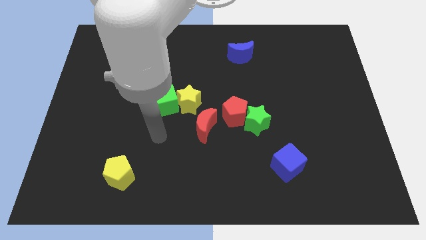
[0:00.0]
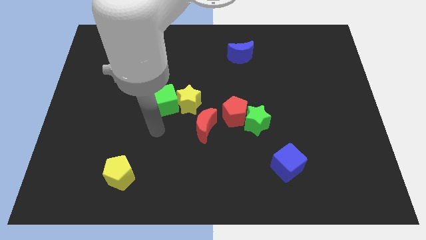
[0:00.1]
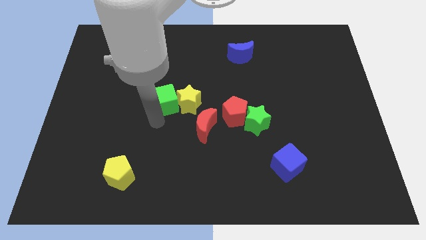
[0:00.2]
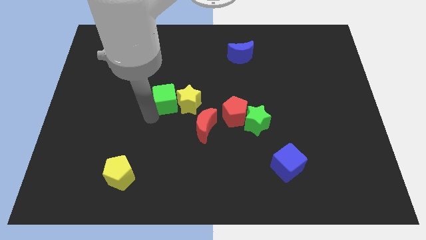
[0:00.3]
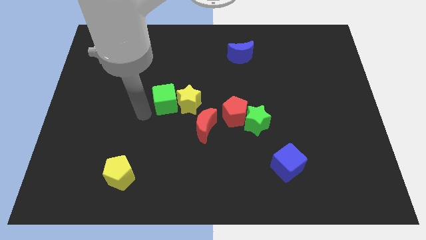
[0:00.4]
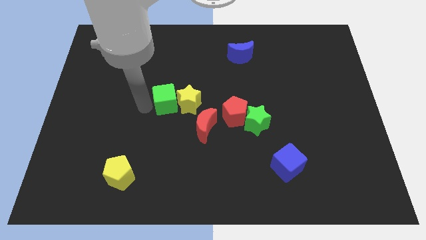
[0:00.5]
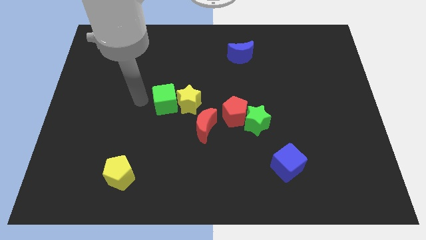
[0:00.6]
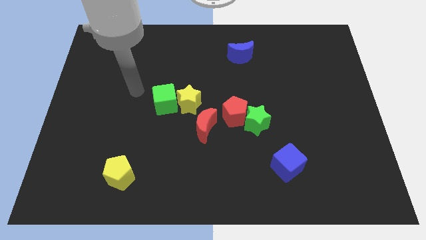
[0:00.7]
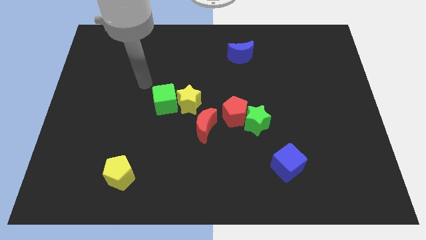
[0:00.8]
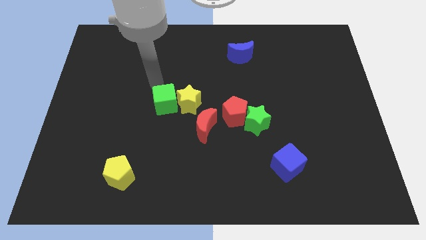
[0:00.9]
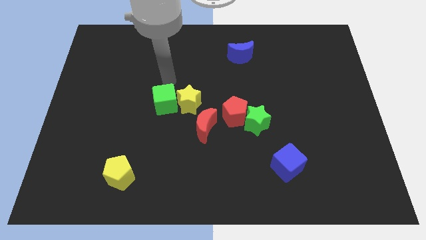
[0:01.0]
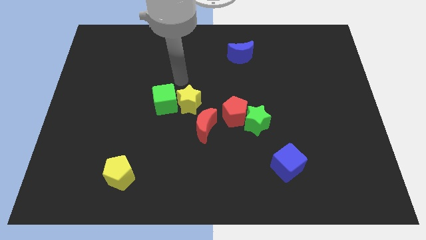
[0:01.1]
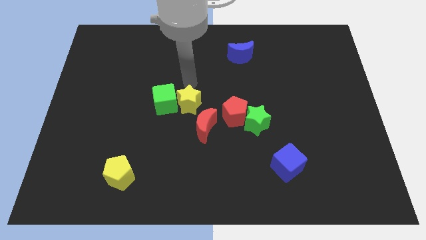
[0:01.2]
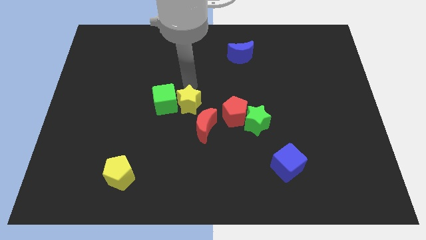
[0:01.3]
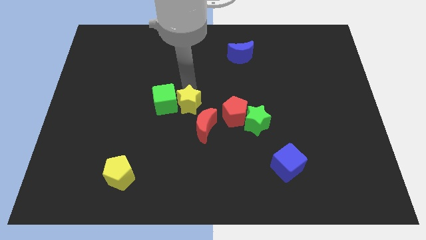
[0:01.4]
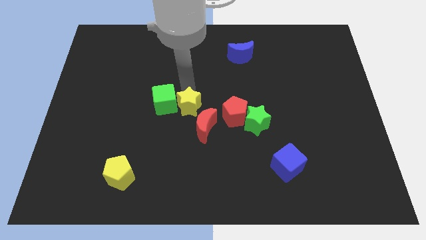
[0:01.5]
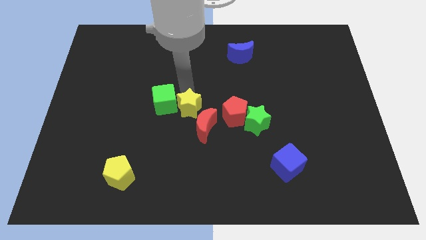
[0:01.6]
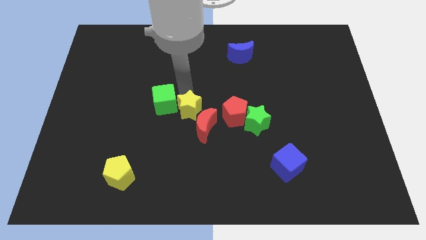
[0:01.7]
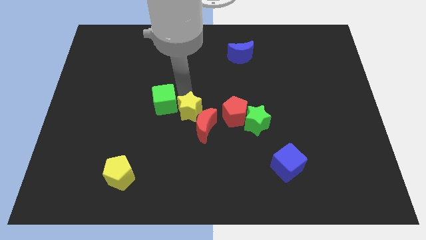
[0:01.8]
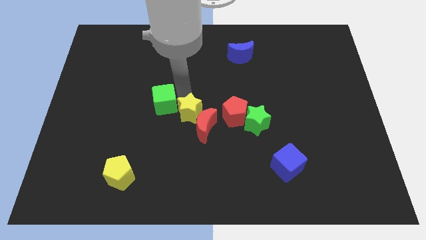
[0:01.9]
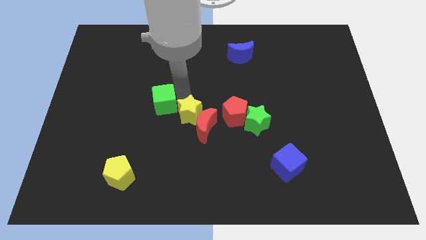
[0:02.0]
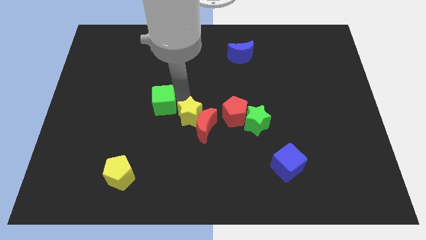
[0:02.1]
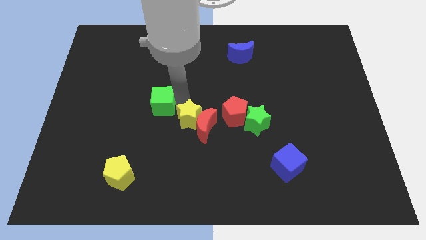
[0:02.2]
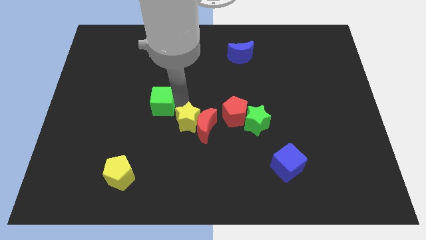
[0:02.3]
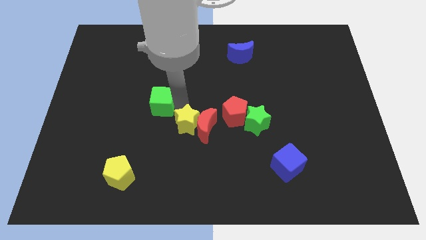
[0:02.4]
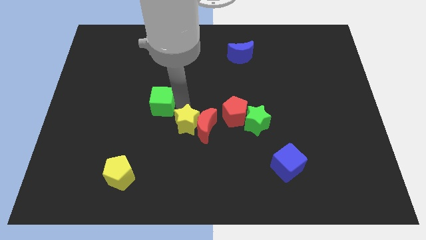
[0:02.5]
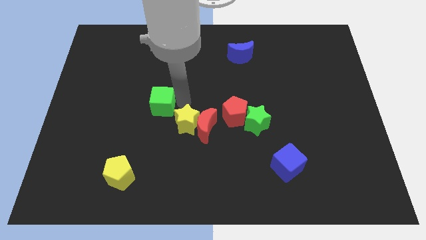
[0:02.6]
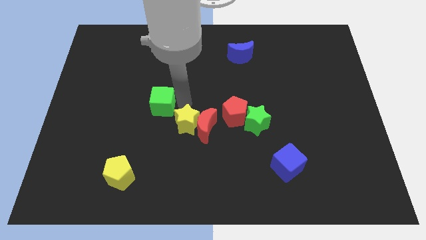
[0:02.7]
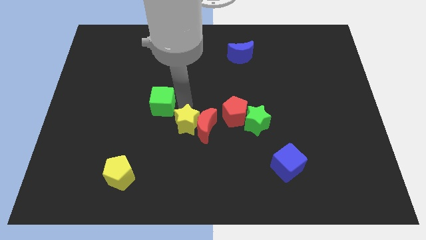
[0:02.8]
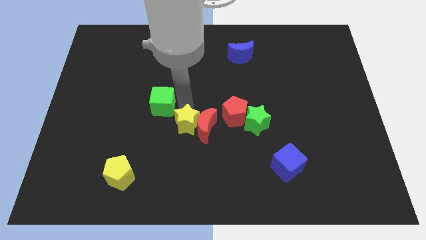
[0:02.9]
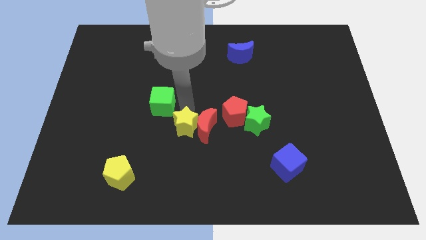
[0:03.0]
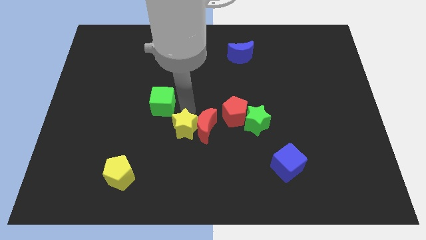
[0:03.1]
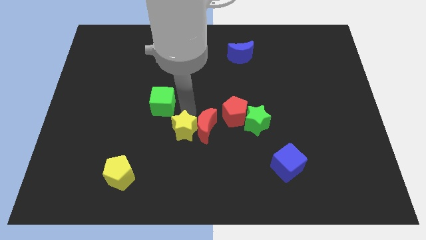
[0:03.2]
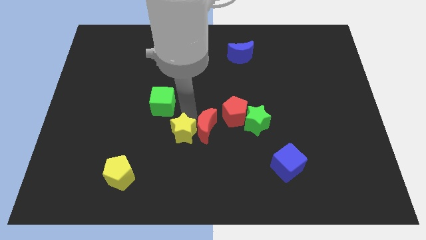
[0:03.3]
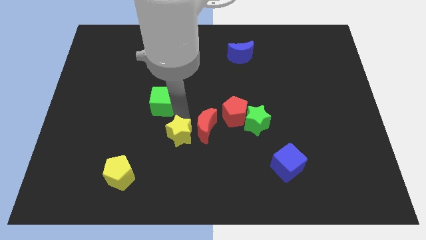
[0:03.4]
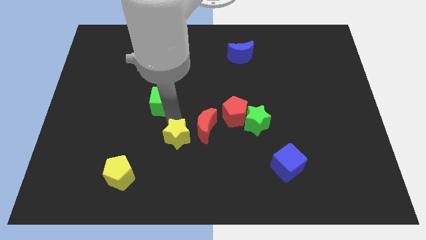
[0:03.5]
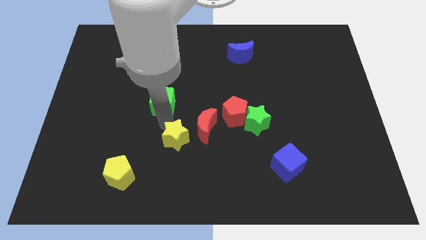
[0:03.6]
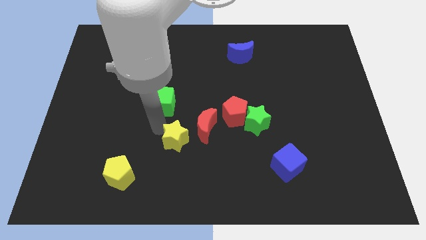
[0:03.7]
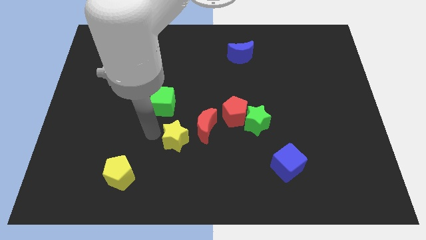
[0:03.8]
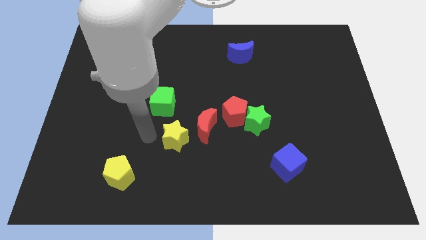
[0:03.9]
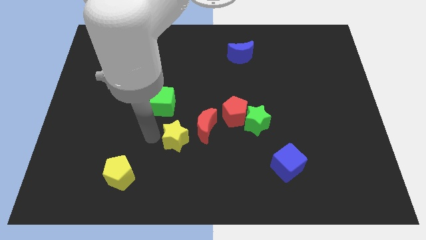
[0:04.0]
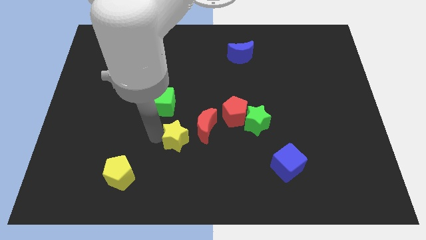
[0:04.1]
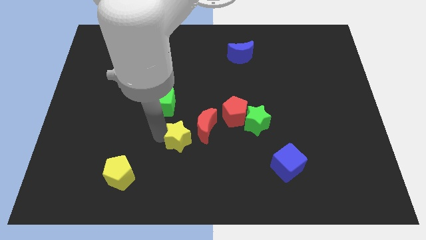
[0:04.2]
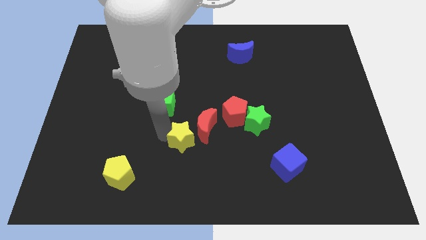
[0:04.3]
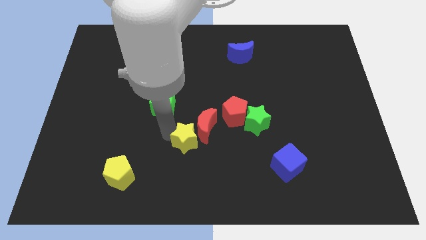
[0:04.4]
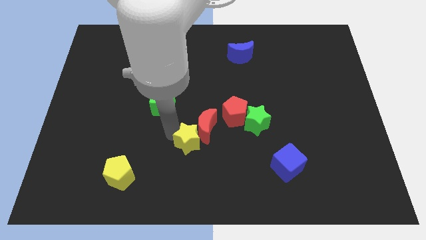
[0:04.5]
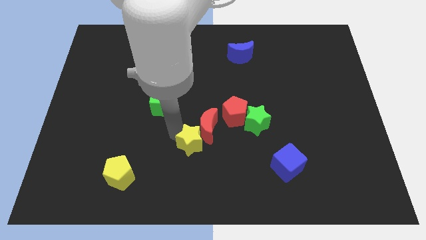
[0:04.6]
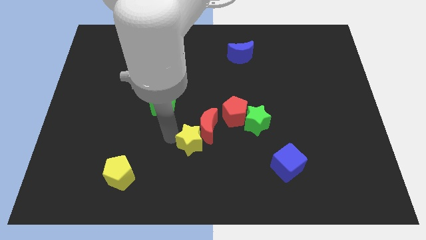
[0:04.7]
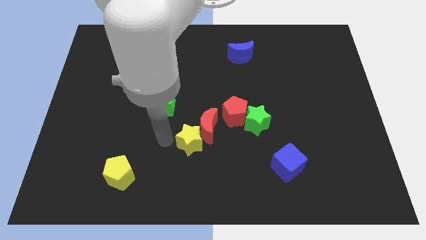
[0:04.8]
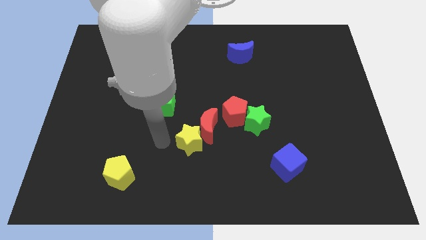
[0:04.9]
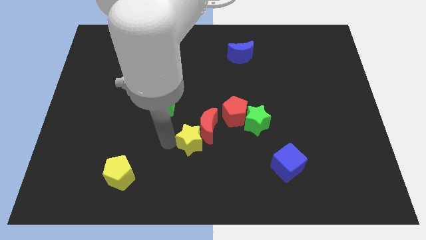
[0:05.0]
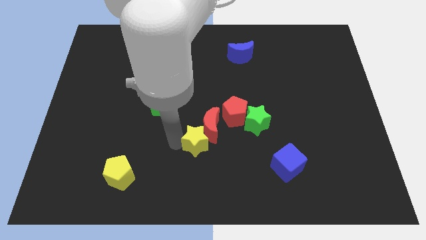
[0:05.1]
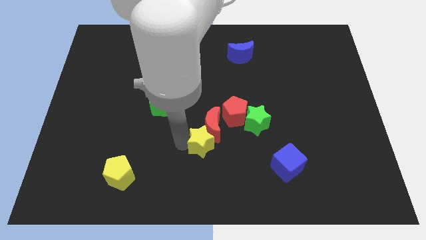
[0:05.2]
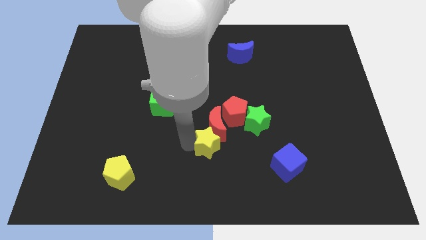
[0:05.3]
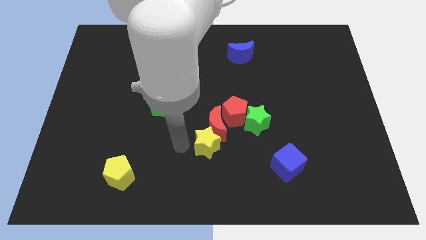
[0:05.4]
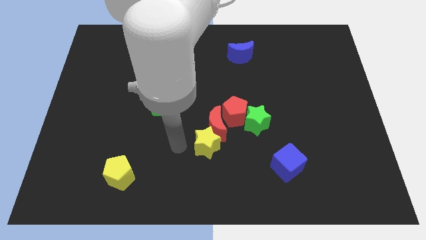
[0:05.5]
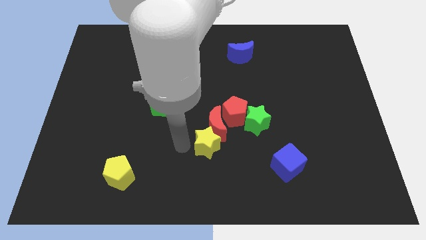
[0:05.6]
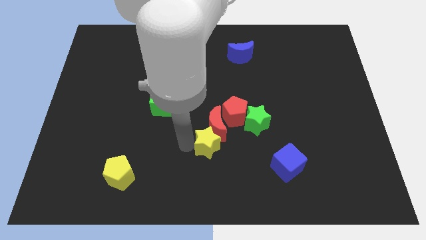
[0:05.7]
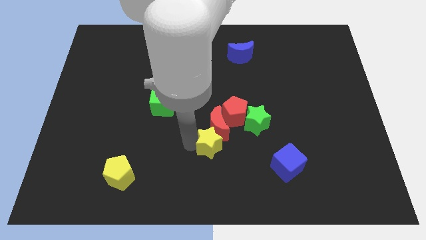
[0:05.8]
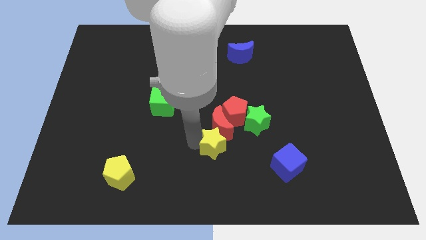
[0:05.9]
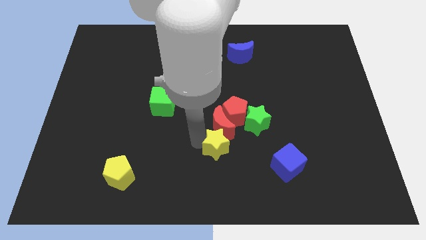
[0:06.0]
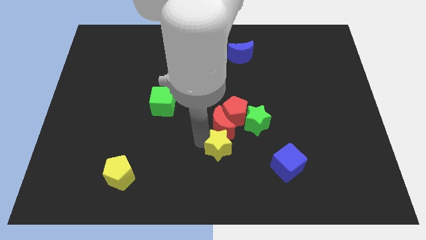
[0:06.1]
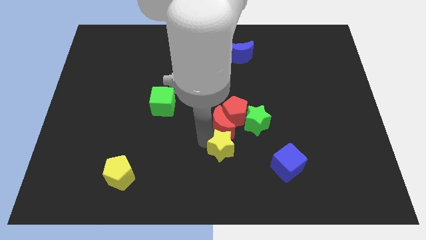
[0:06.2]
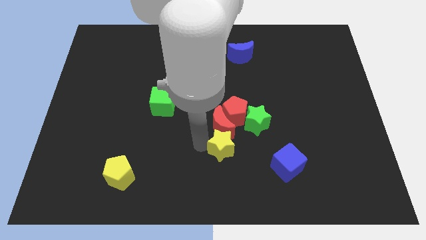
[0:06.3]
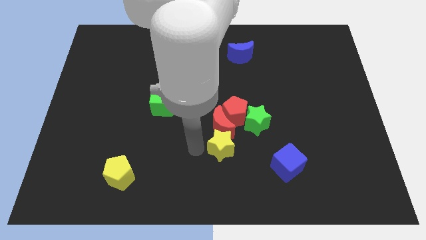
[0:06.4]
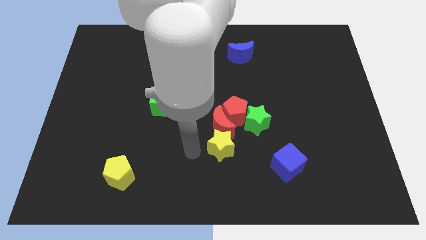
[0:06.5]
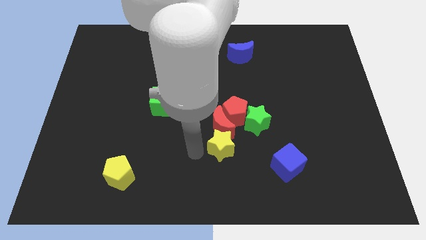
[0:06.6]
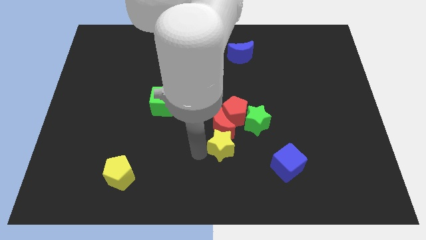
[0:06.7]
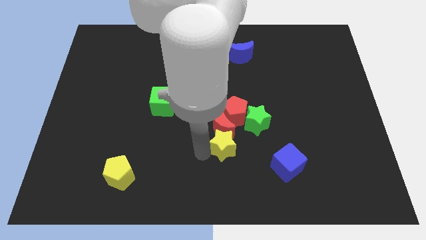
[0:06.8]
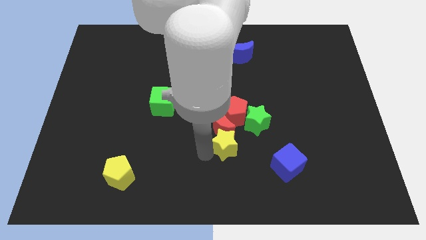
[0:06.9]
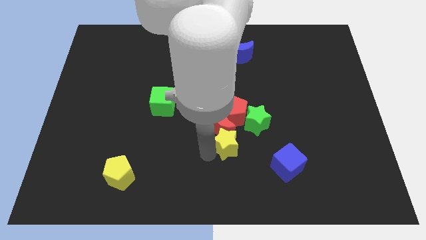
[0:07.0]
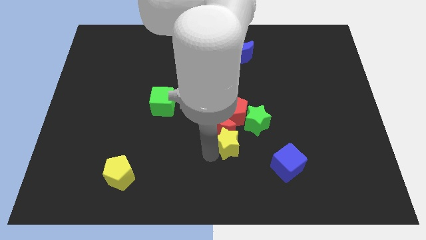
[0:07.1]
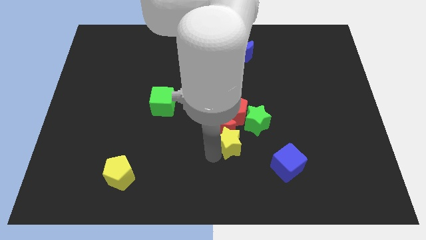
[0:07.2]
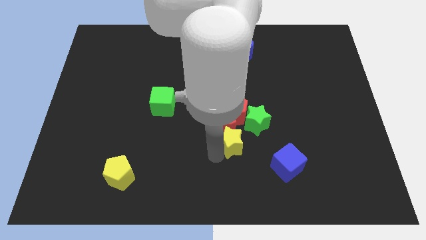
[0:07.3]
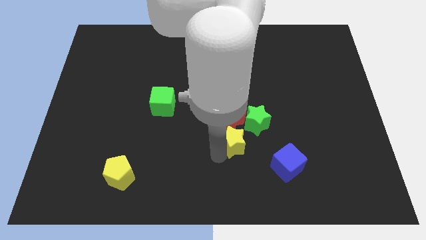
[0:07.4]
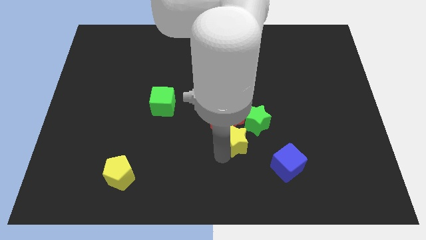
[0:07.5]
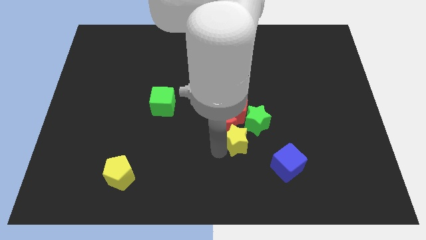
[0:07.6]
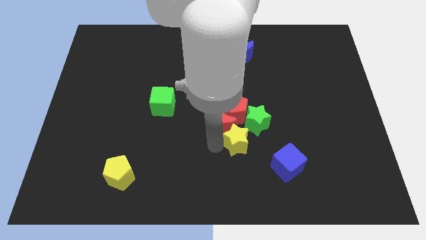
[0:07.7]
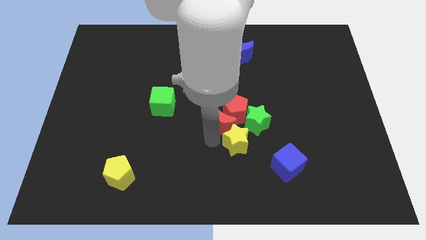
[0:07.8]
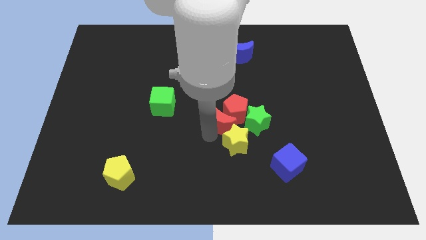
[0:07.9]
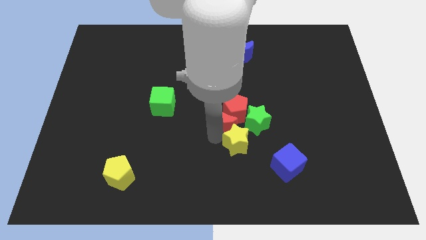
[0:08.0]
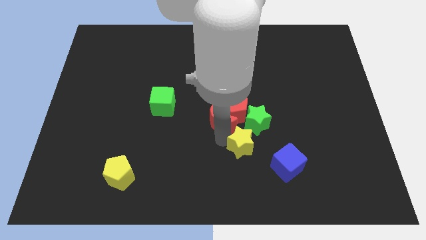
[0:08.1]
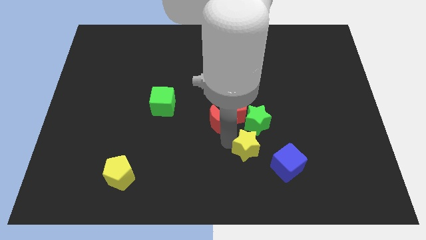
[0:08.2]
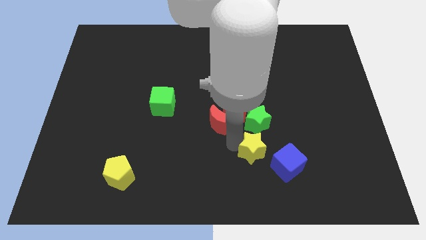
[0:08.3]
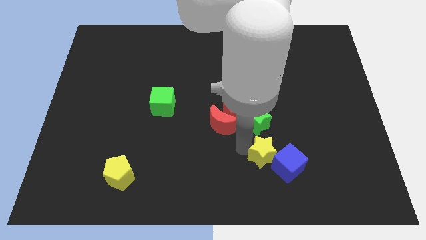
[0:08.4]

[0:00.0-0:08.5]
push the yellow star close to the blue cube
